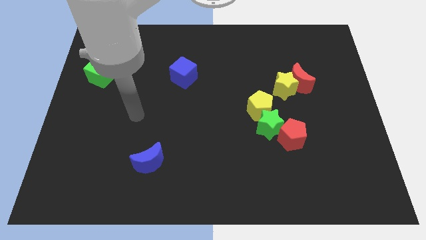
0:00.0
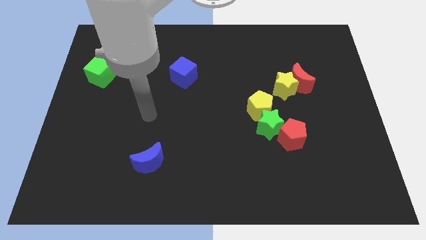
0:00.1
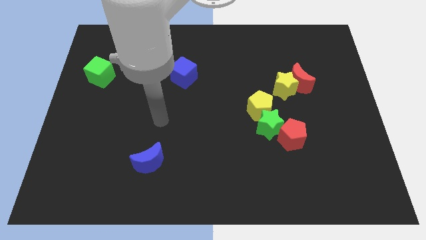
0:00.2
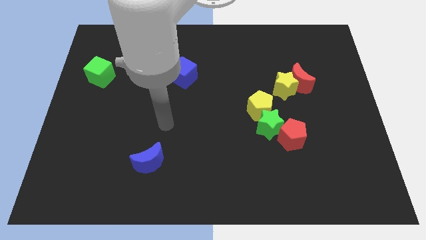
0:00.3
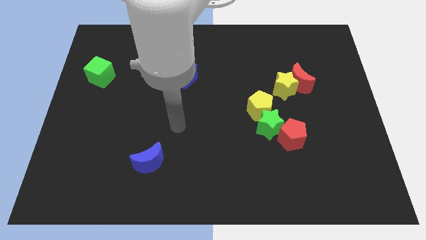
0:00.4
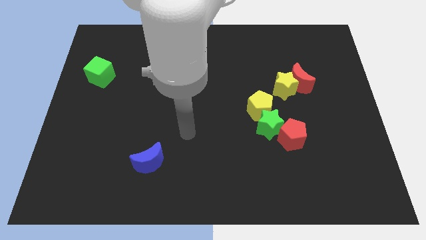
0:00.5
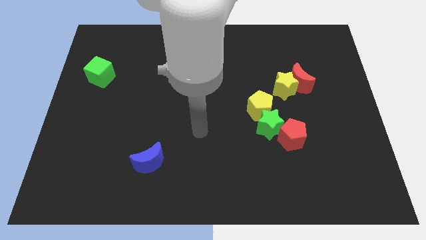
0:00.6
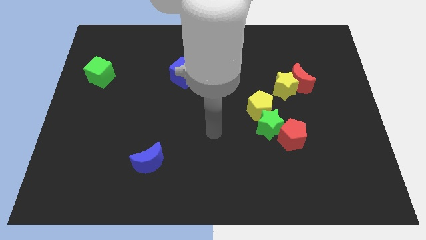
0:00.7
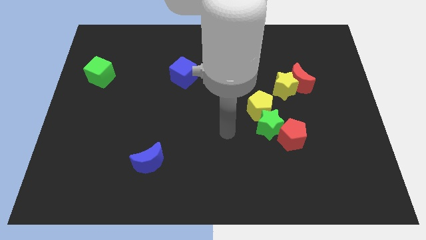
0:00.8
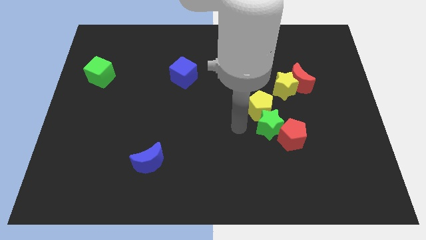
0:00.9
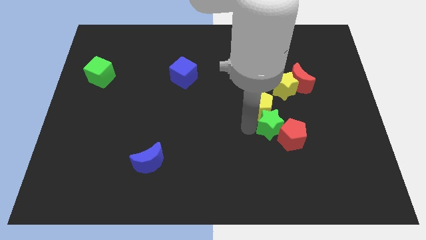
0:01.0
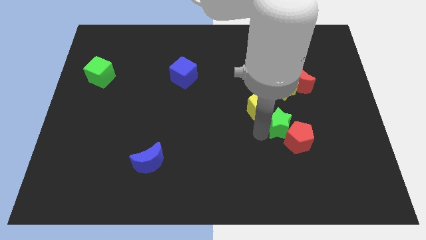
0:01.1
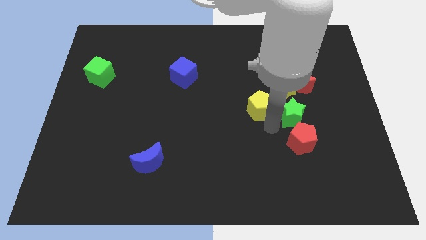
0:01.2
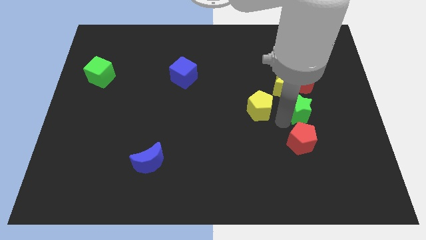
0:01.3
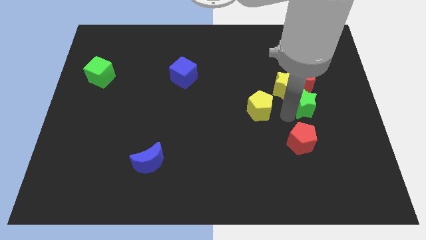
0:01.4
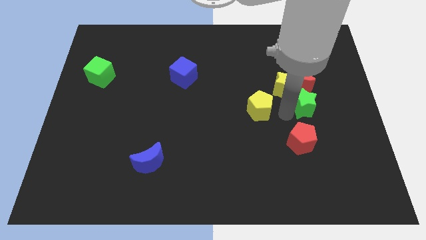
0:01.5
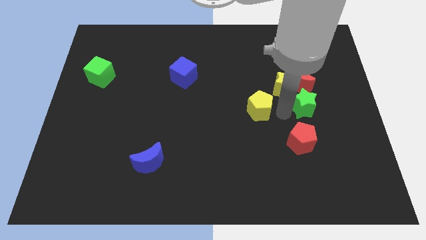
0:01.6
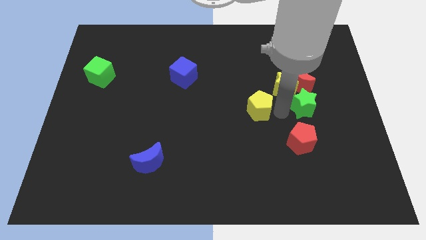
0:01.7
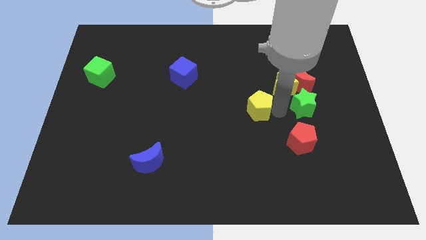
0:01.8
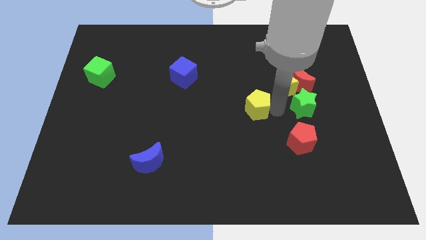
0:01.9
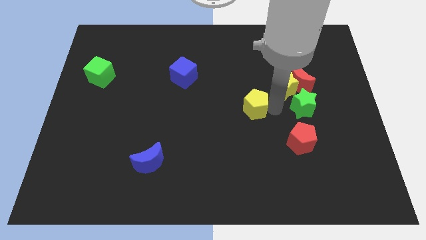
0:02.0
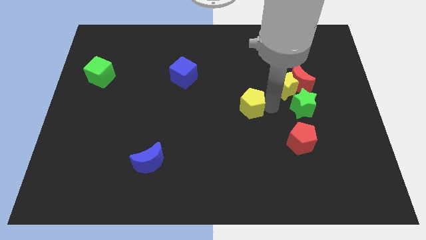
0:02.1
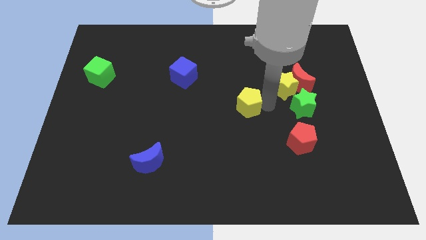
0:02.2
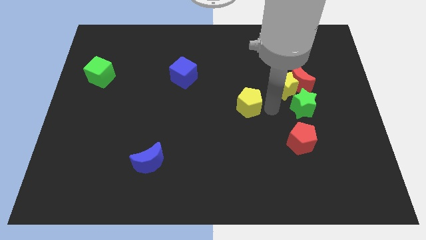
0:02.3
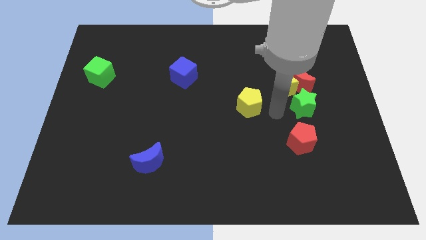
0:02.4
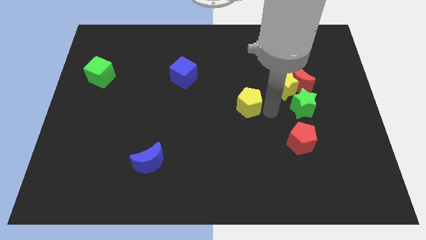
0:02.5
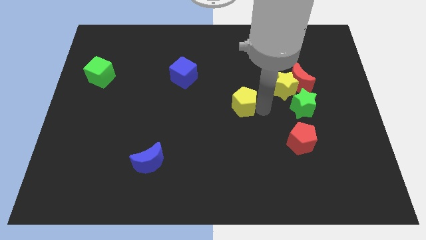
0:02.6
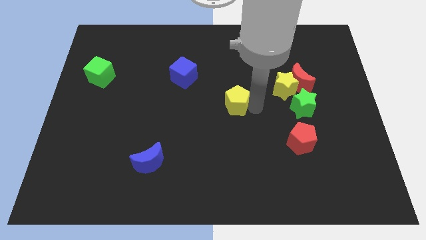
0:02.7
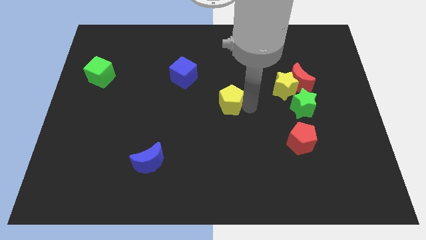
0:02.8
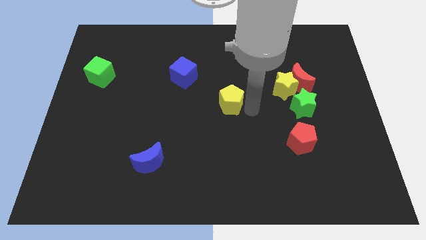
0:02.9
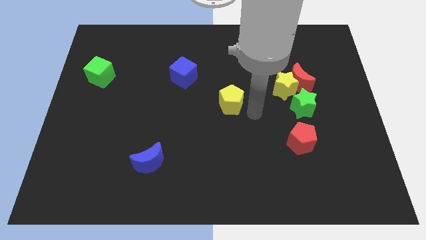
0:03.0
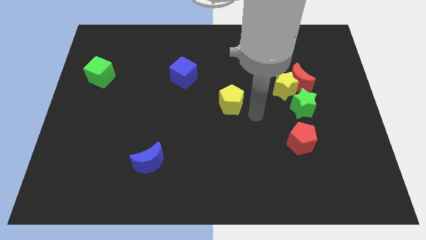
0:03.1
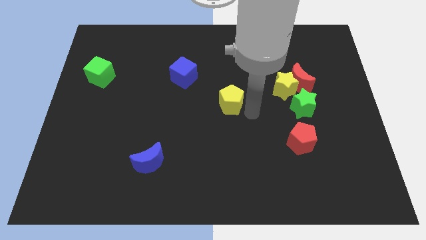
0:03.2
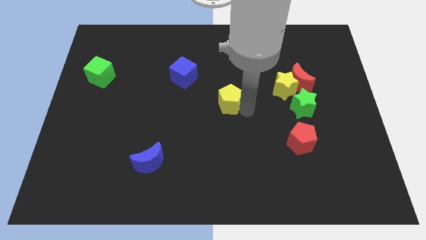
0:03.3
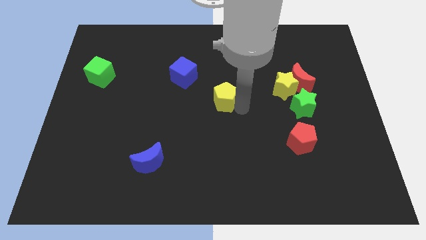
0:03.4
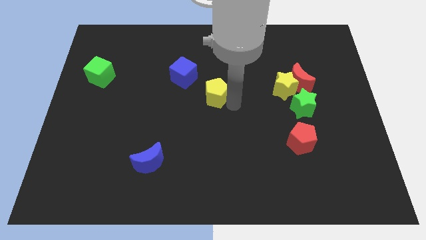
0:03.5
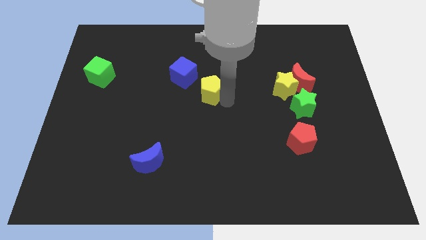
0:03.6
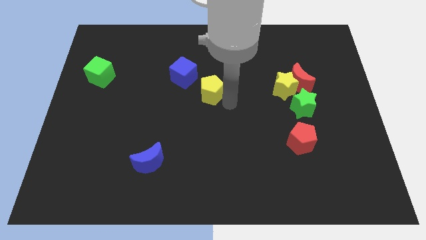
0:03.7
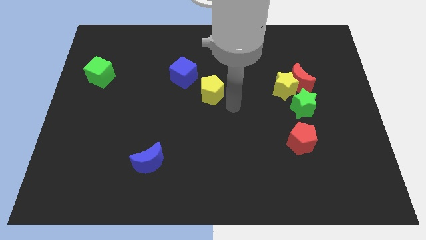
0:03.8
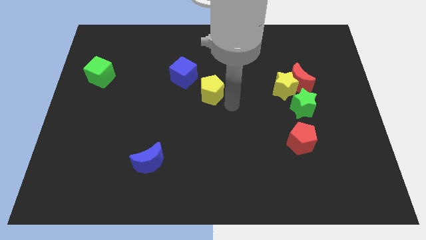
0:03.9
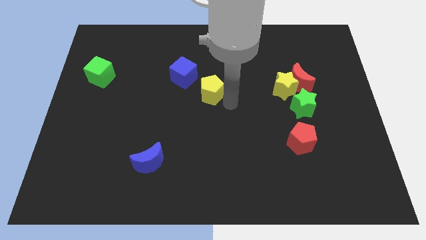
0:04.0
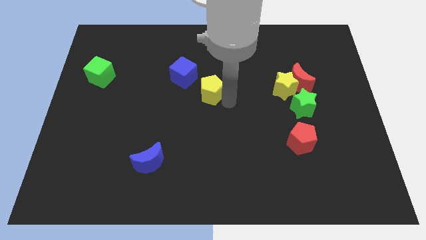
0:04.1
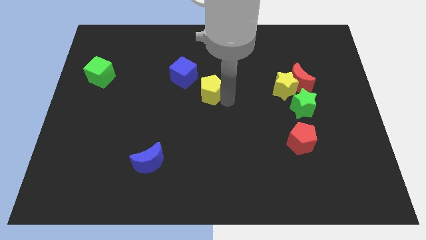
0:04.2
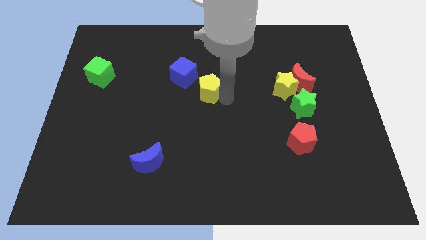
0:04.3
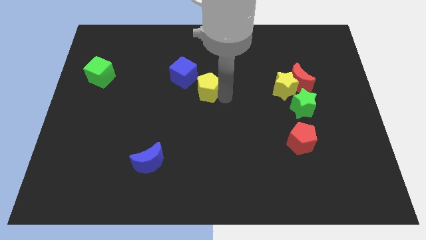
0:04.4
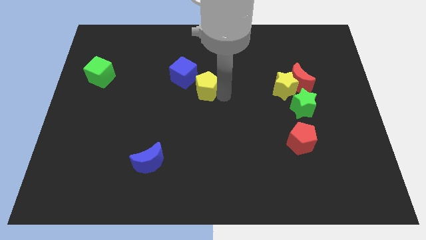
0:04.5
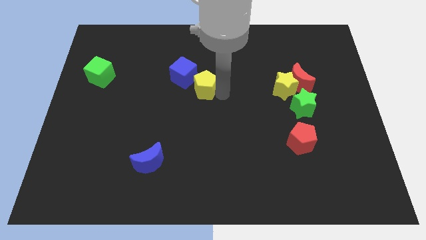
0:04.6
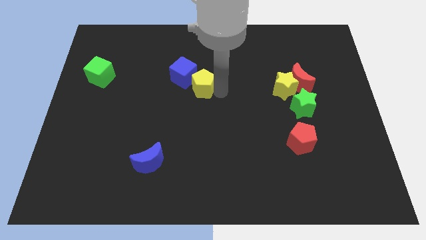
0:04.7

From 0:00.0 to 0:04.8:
put the yellow pentagon towards the blue cube

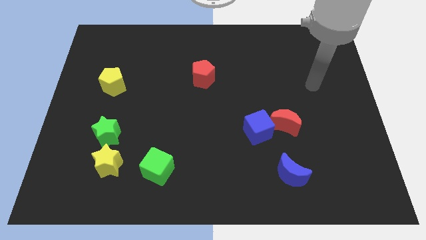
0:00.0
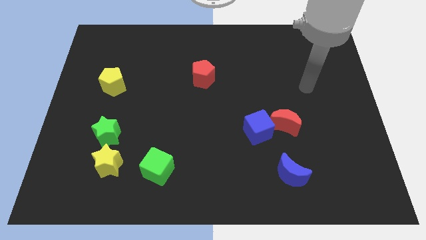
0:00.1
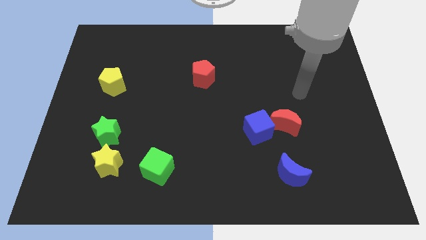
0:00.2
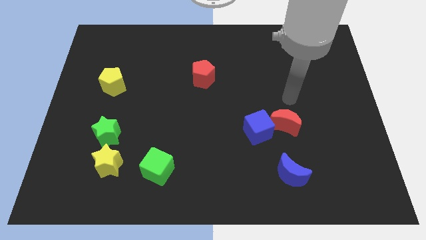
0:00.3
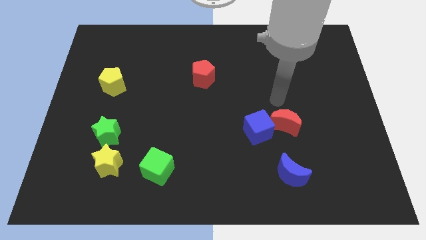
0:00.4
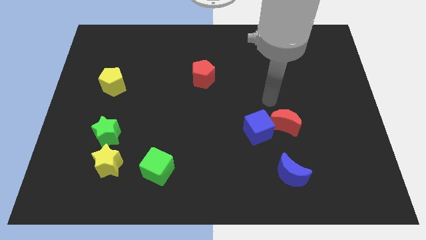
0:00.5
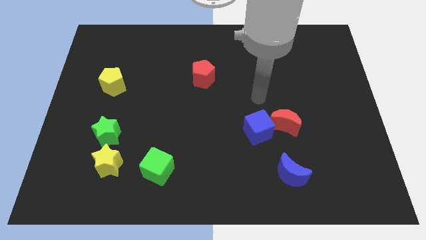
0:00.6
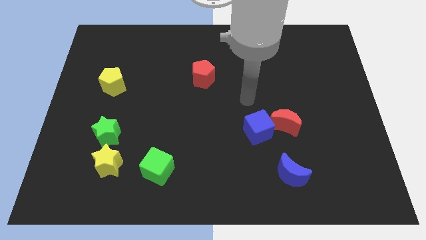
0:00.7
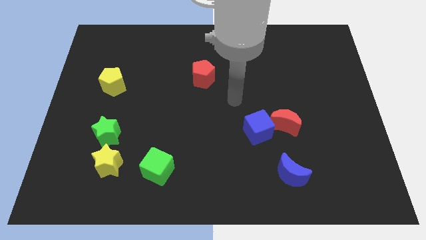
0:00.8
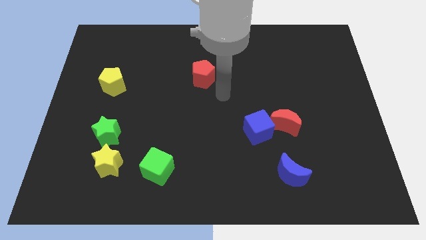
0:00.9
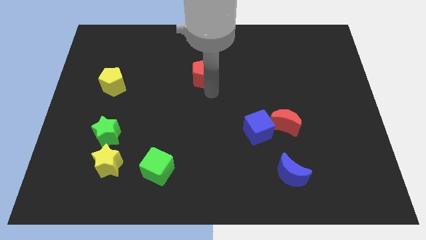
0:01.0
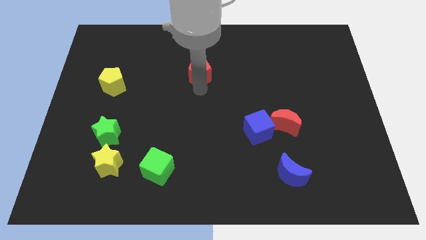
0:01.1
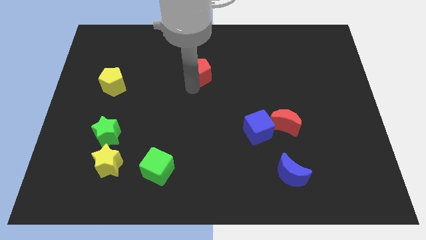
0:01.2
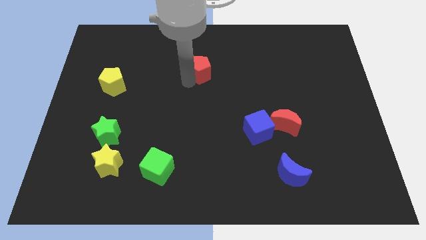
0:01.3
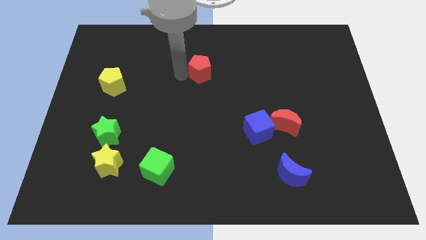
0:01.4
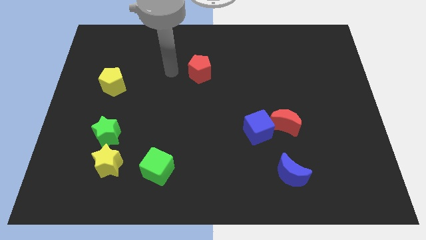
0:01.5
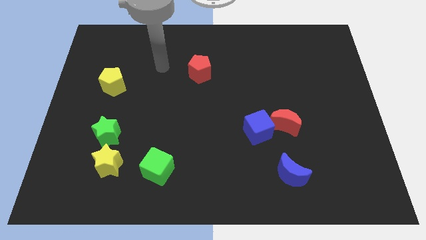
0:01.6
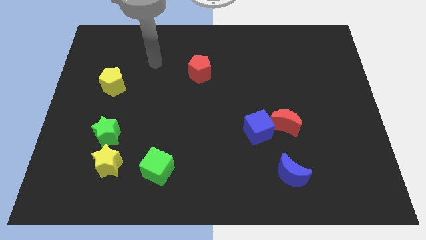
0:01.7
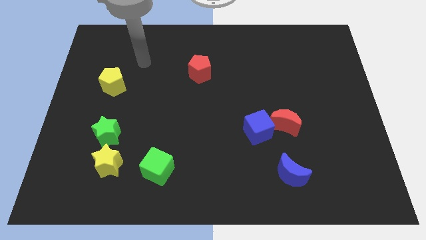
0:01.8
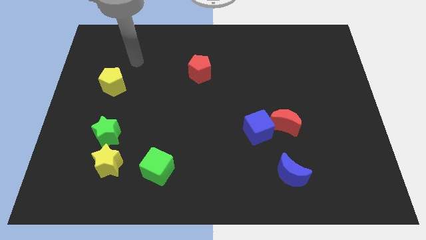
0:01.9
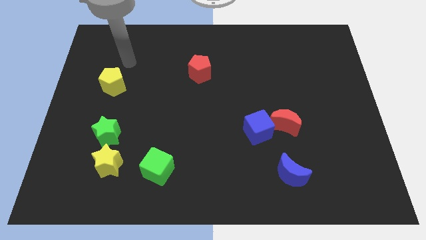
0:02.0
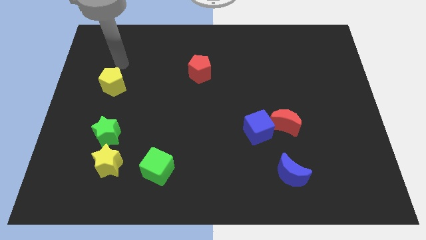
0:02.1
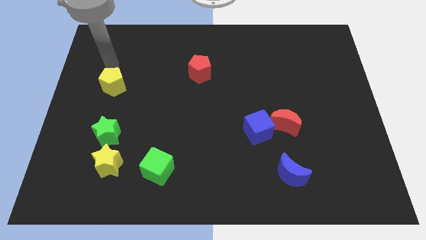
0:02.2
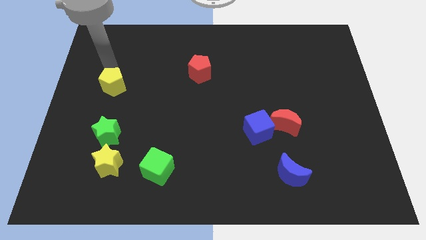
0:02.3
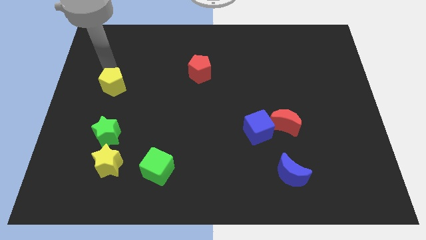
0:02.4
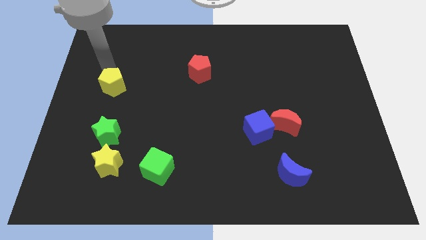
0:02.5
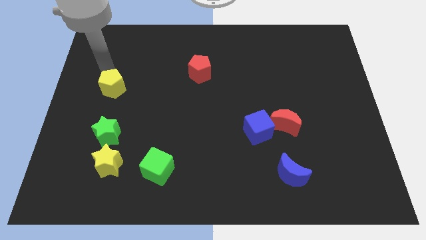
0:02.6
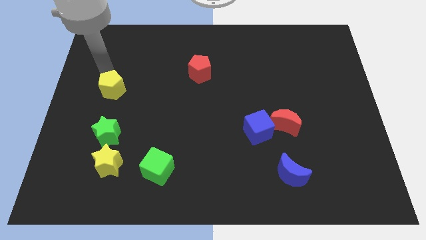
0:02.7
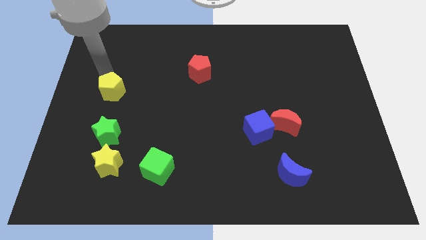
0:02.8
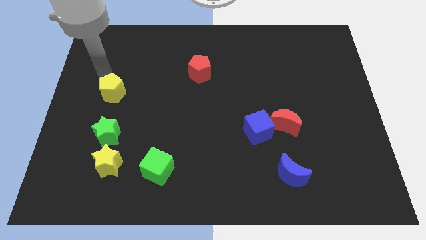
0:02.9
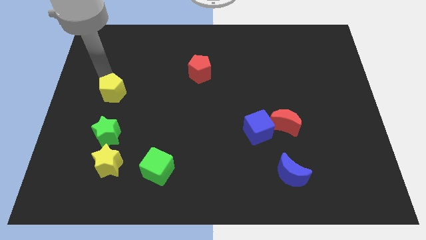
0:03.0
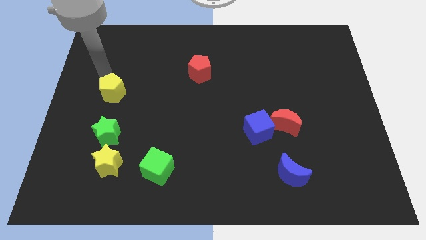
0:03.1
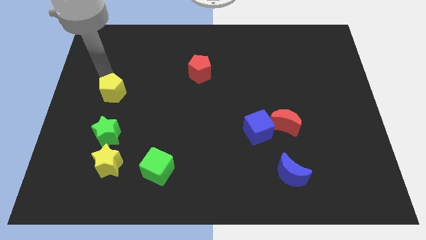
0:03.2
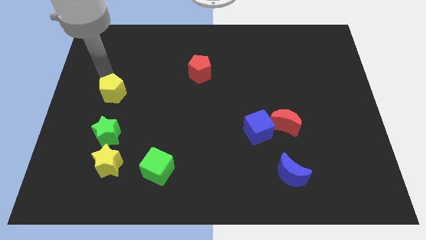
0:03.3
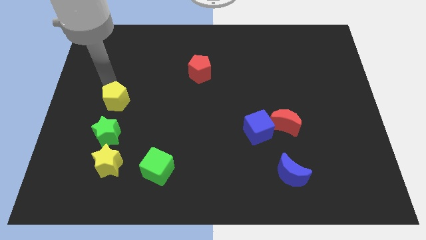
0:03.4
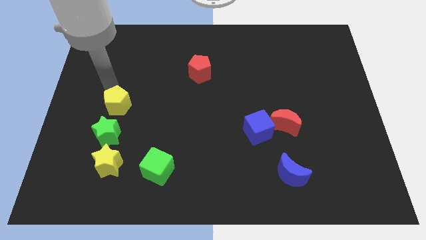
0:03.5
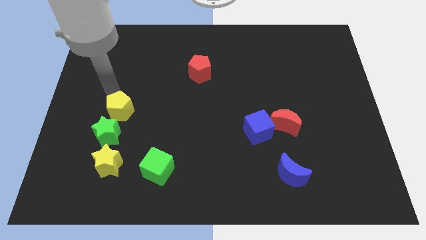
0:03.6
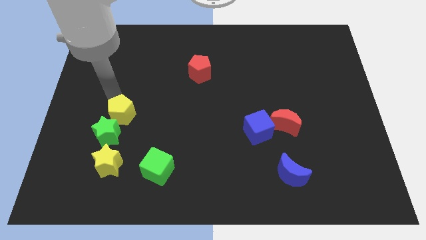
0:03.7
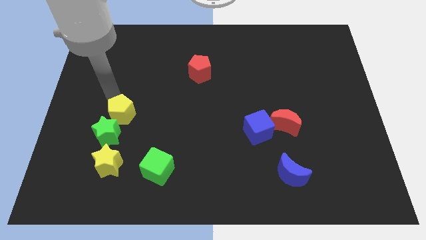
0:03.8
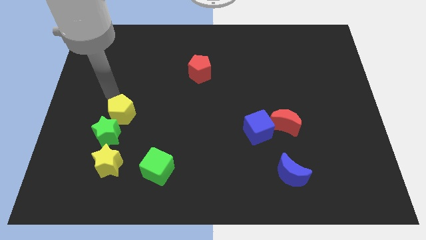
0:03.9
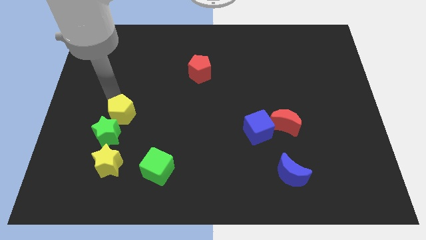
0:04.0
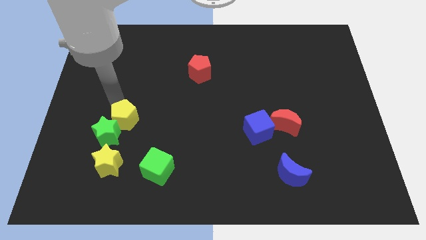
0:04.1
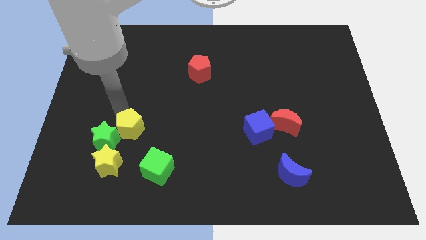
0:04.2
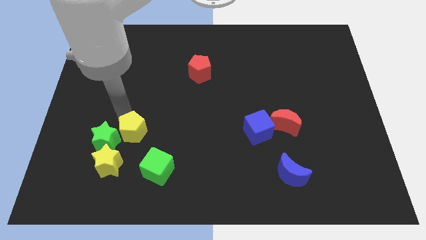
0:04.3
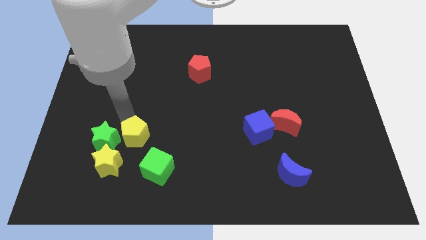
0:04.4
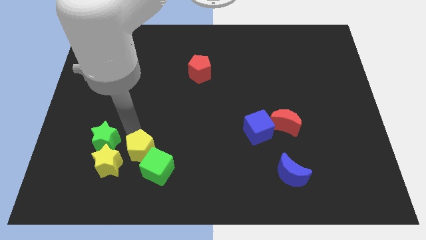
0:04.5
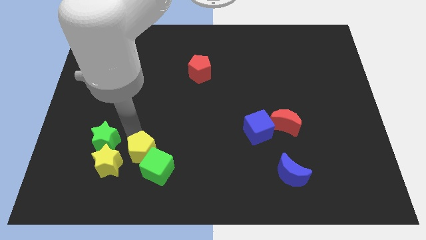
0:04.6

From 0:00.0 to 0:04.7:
slide the yellow pentagon to the green cube
